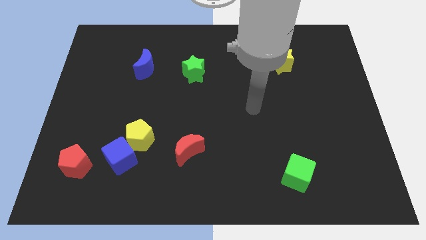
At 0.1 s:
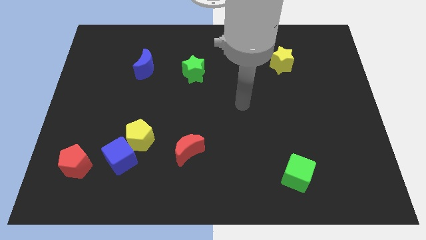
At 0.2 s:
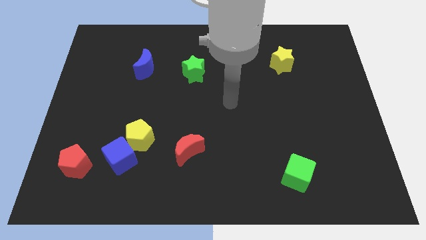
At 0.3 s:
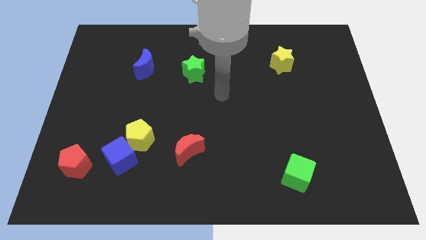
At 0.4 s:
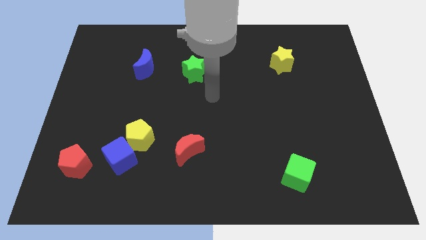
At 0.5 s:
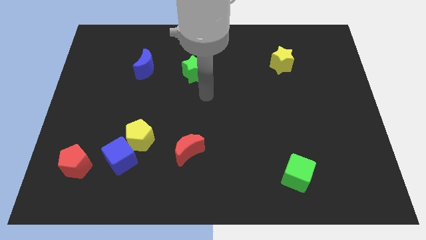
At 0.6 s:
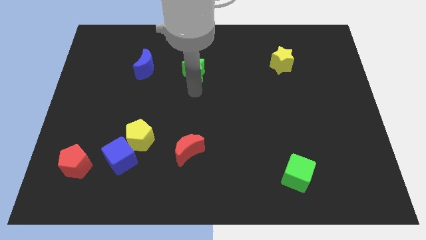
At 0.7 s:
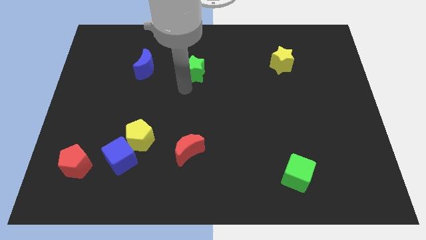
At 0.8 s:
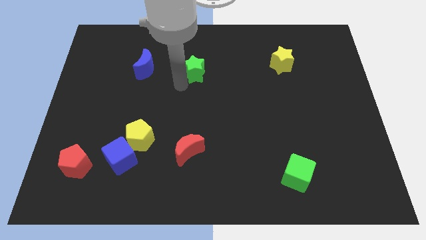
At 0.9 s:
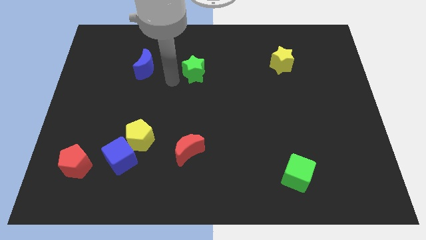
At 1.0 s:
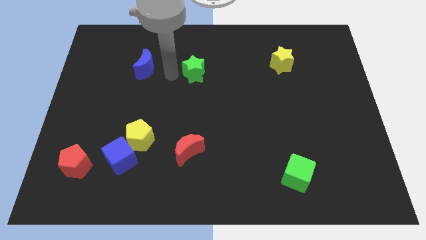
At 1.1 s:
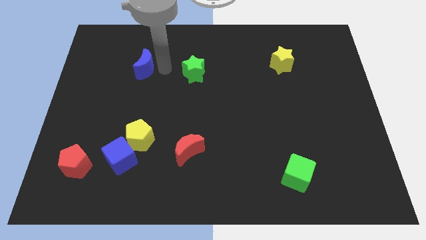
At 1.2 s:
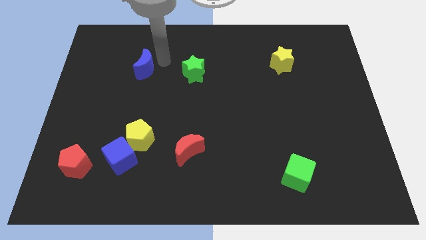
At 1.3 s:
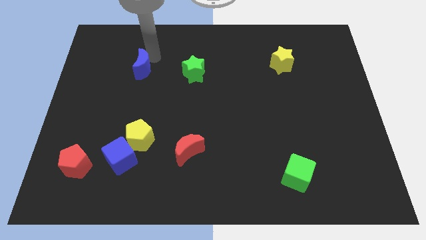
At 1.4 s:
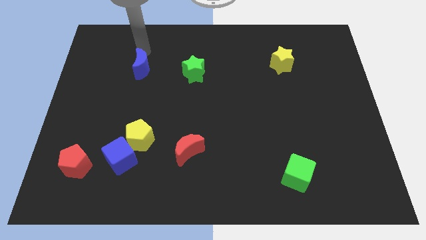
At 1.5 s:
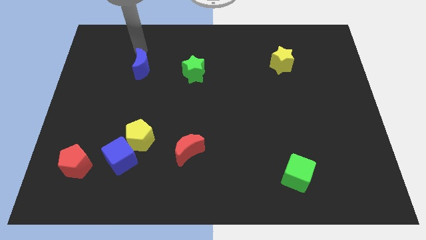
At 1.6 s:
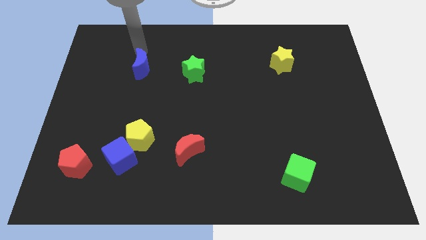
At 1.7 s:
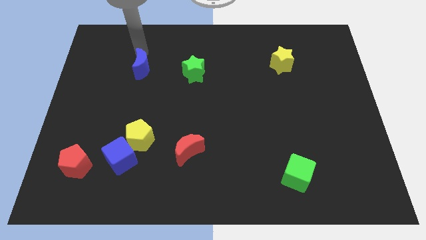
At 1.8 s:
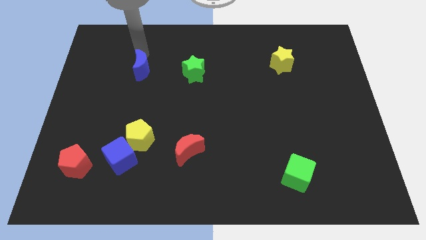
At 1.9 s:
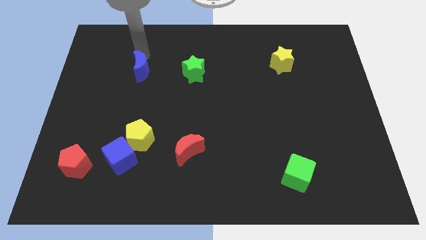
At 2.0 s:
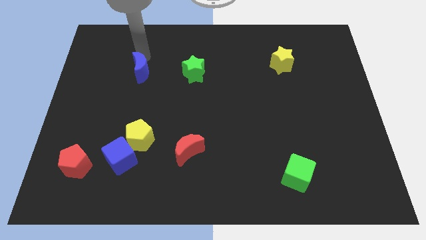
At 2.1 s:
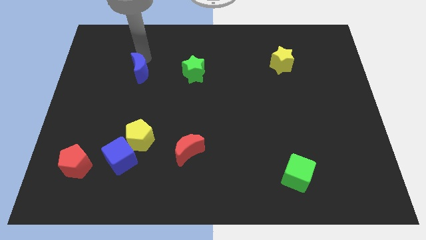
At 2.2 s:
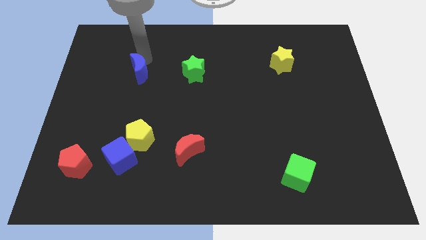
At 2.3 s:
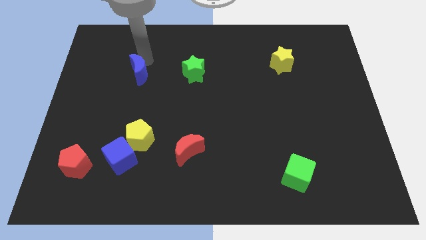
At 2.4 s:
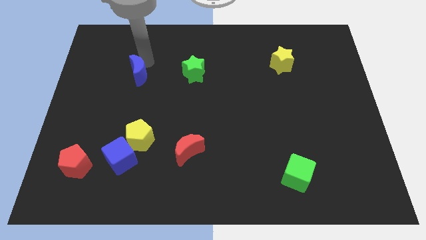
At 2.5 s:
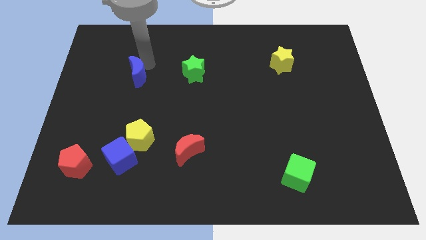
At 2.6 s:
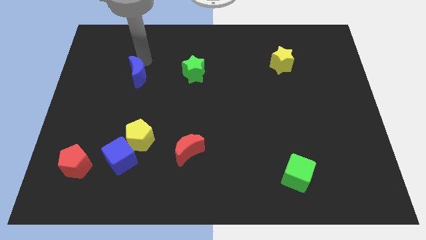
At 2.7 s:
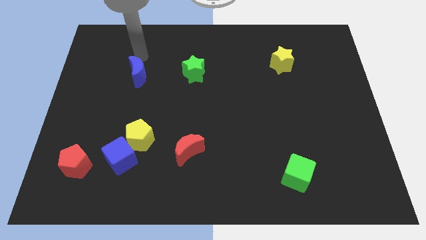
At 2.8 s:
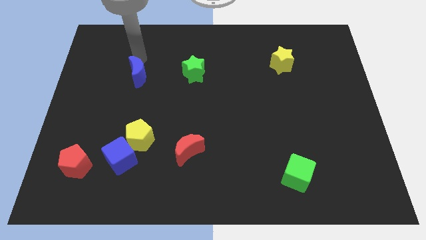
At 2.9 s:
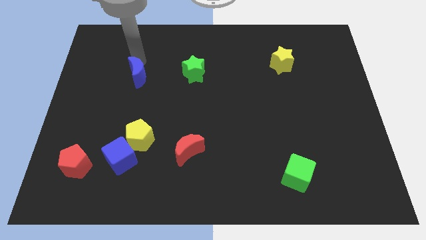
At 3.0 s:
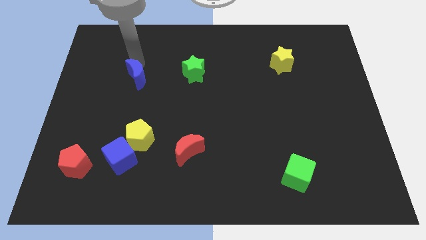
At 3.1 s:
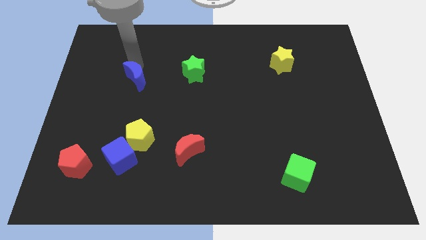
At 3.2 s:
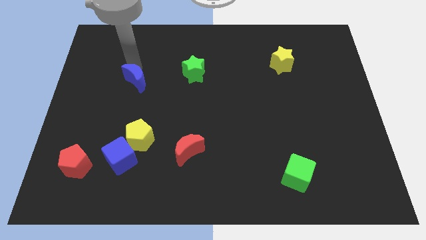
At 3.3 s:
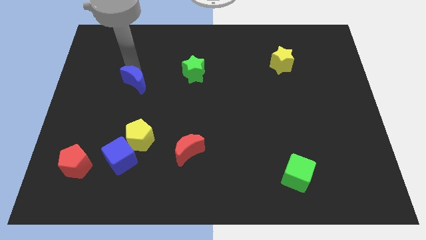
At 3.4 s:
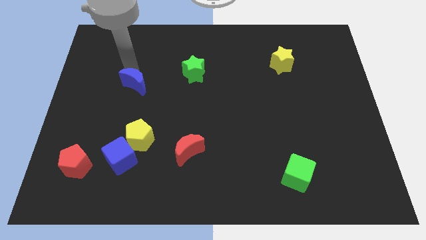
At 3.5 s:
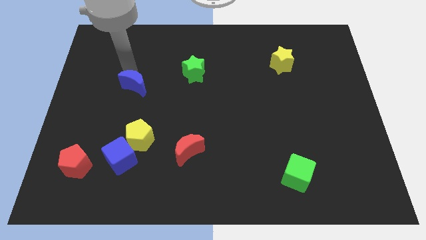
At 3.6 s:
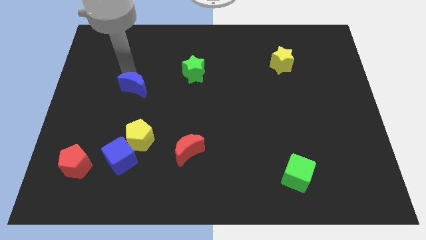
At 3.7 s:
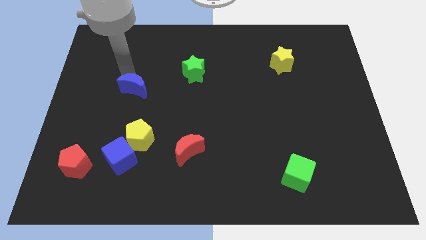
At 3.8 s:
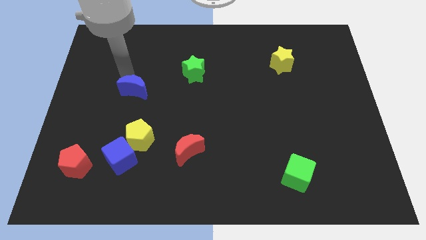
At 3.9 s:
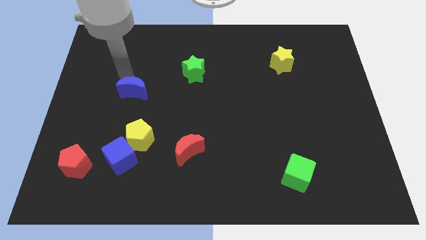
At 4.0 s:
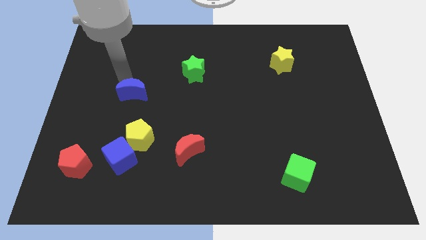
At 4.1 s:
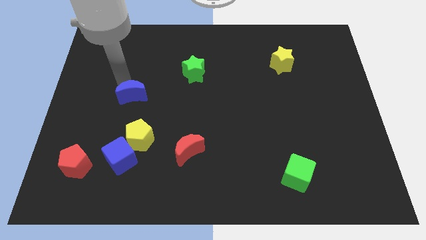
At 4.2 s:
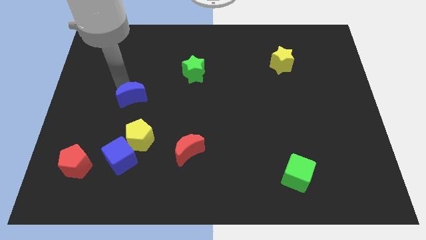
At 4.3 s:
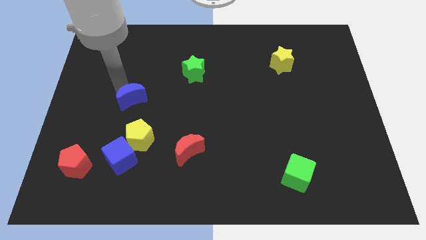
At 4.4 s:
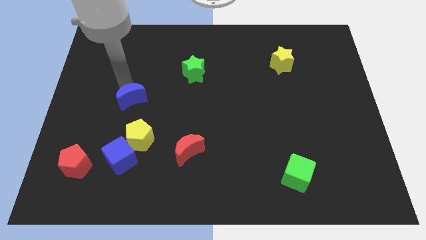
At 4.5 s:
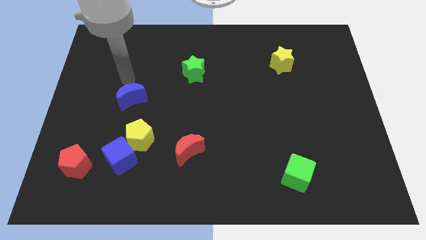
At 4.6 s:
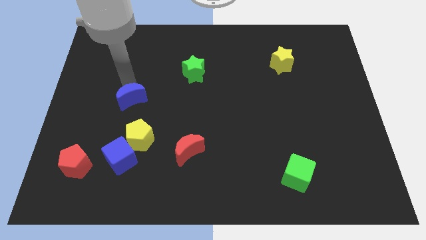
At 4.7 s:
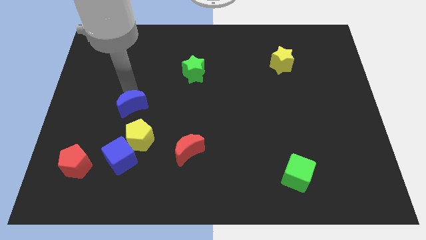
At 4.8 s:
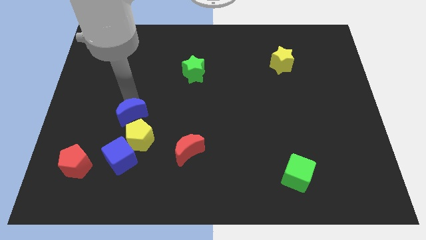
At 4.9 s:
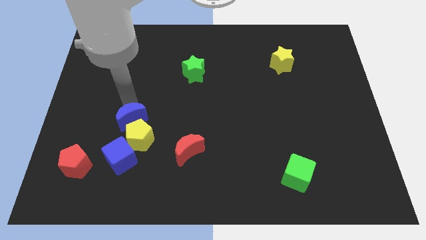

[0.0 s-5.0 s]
move the blue moon to the yellow pentagon

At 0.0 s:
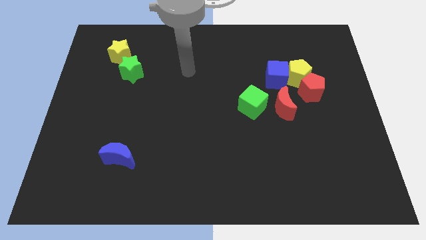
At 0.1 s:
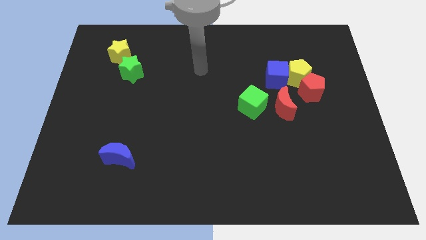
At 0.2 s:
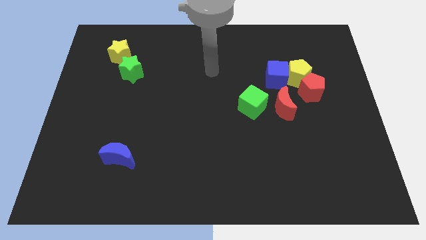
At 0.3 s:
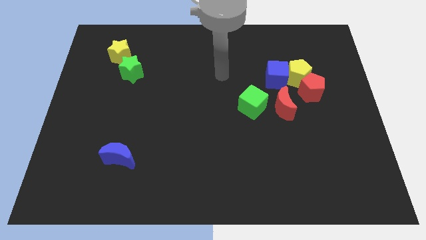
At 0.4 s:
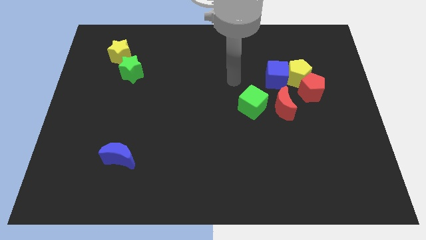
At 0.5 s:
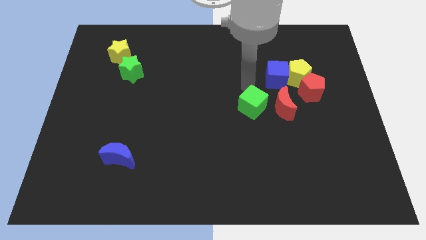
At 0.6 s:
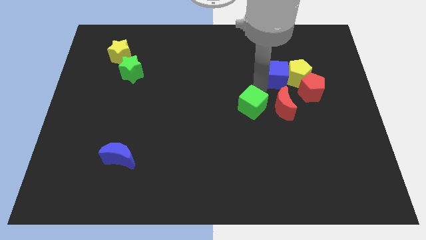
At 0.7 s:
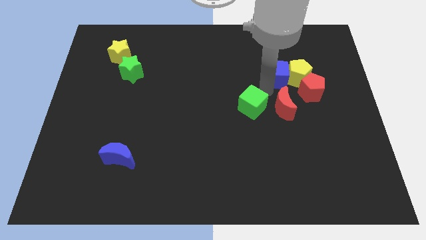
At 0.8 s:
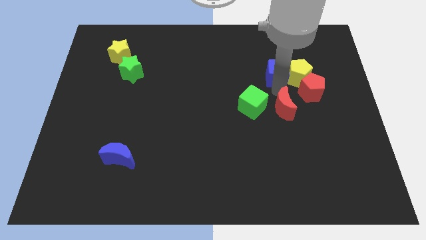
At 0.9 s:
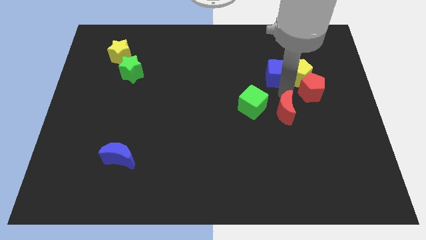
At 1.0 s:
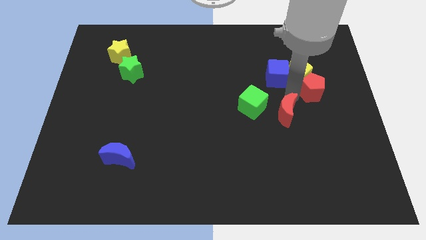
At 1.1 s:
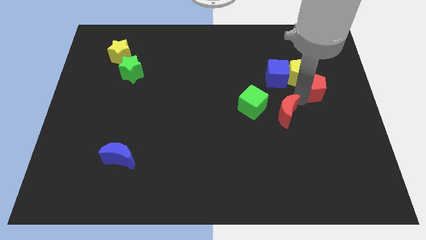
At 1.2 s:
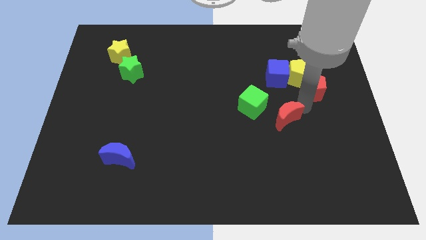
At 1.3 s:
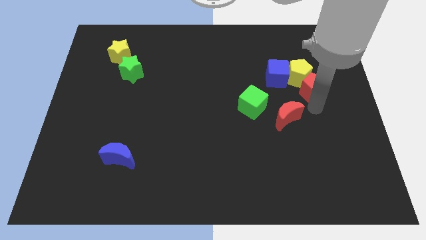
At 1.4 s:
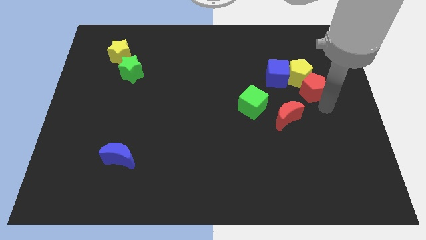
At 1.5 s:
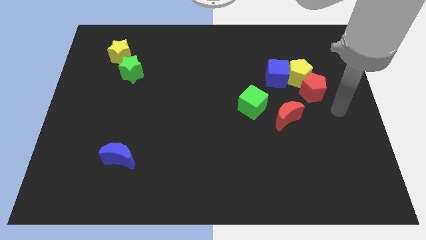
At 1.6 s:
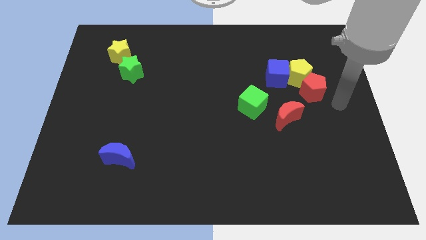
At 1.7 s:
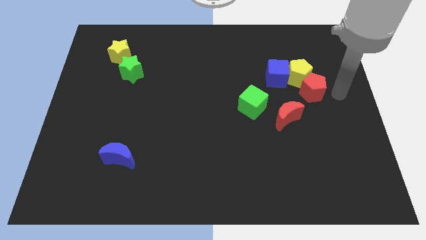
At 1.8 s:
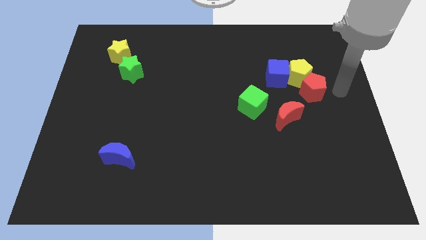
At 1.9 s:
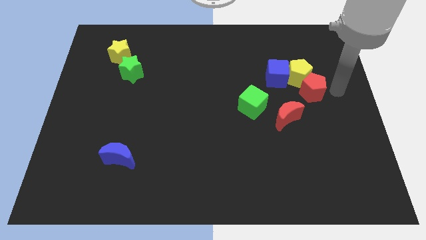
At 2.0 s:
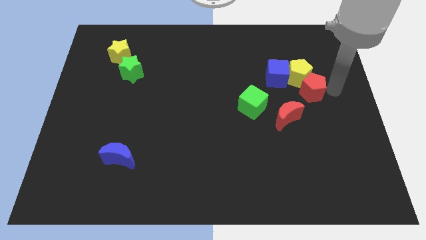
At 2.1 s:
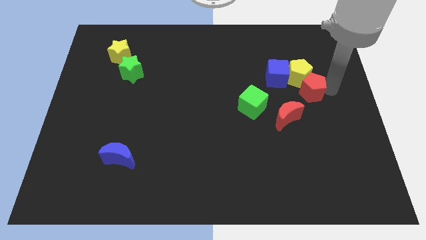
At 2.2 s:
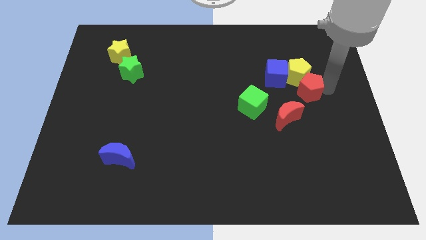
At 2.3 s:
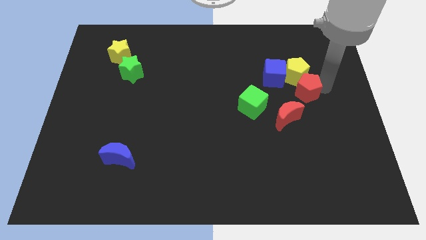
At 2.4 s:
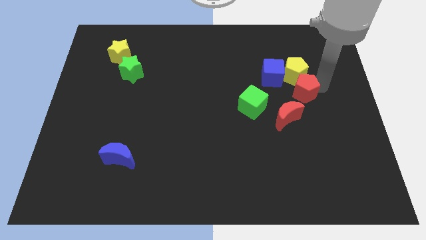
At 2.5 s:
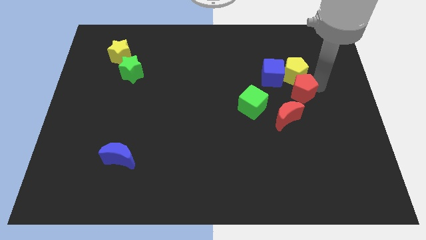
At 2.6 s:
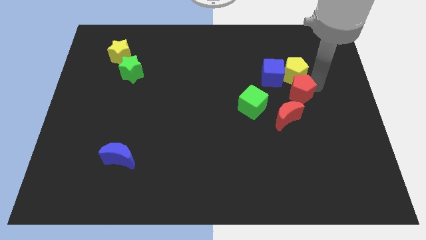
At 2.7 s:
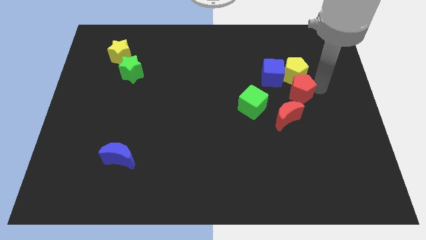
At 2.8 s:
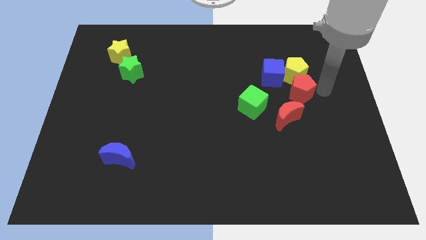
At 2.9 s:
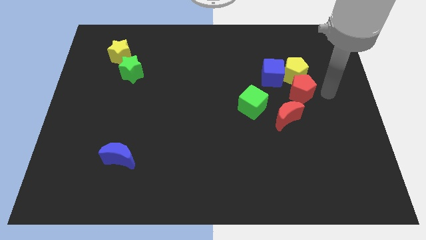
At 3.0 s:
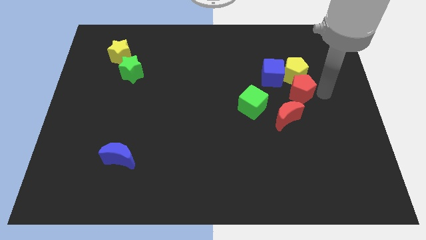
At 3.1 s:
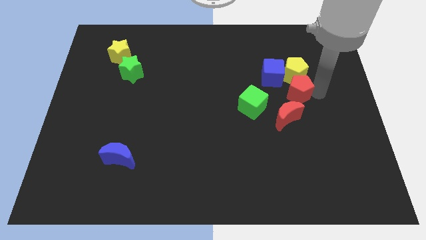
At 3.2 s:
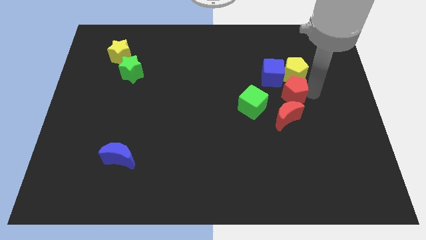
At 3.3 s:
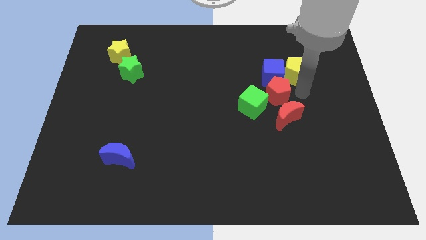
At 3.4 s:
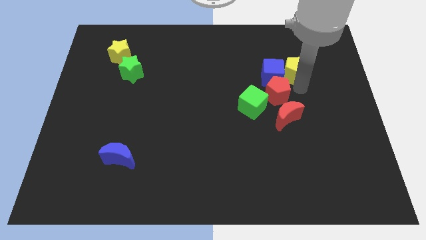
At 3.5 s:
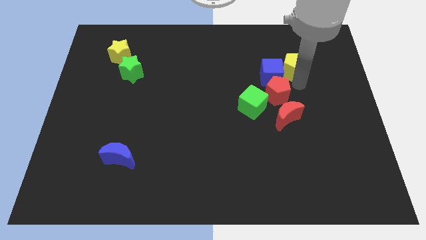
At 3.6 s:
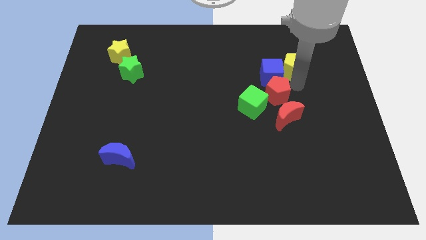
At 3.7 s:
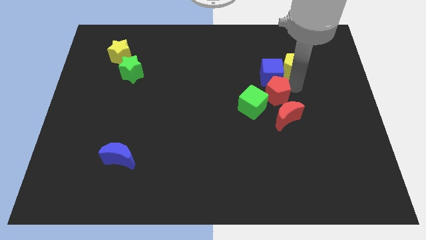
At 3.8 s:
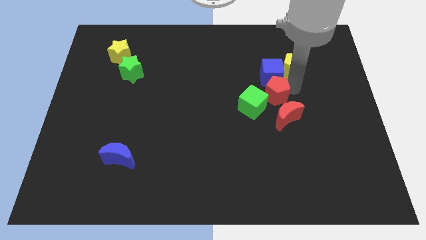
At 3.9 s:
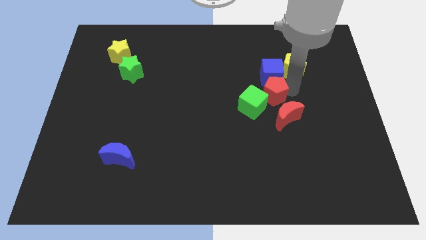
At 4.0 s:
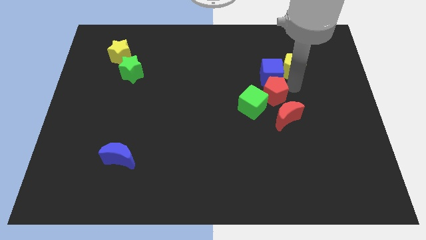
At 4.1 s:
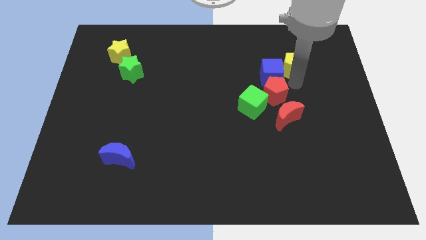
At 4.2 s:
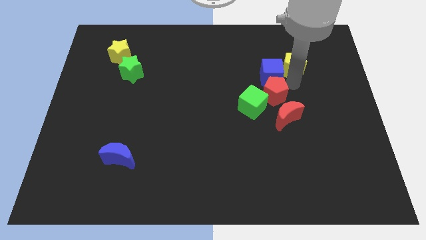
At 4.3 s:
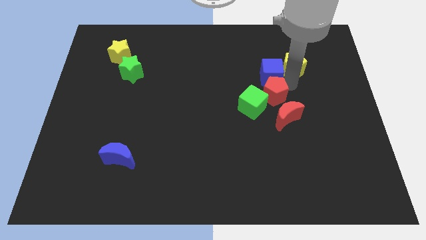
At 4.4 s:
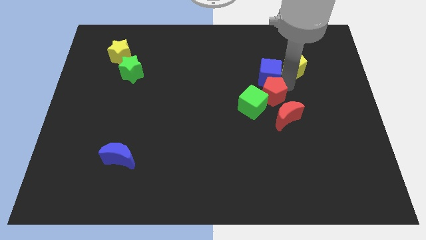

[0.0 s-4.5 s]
move the red pentagon close to the green cube
